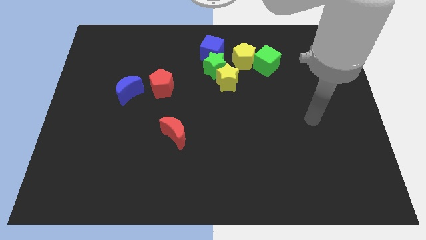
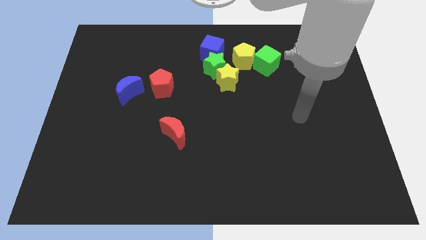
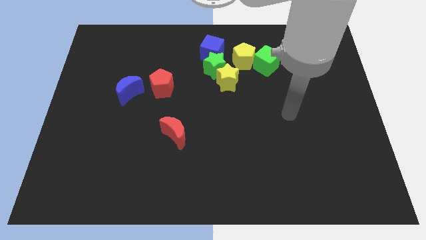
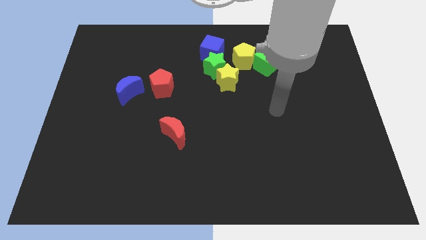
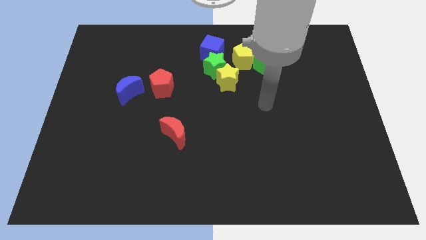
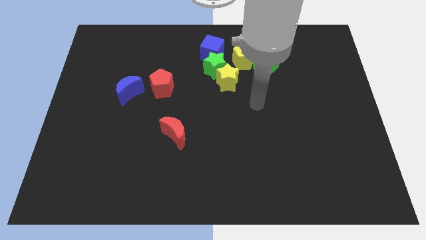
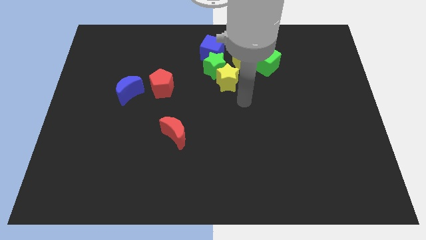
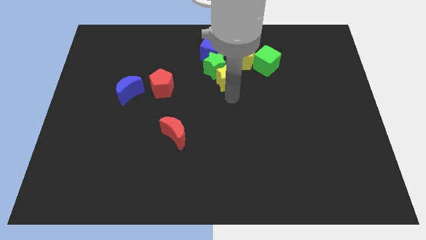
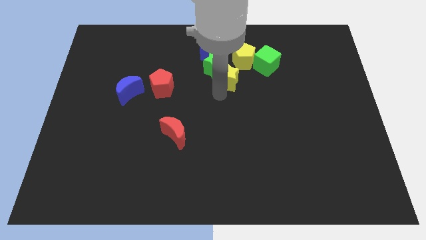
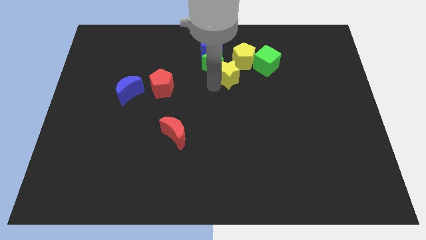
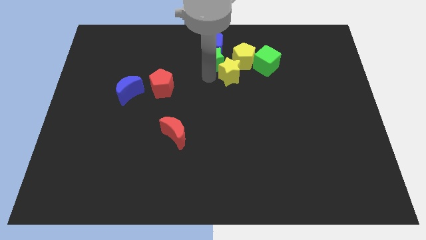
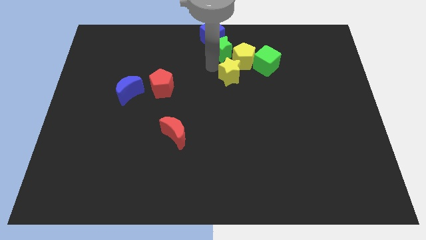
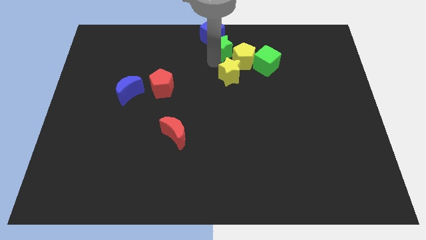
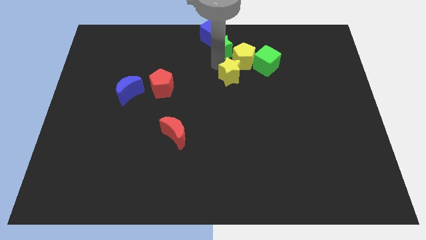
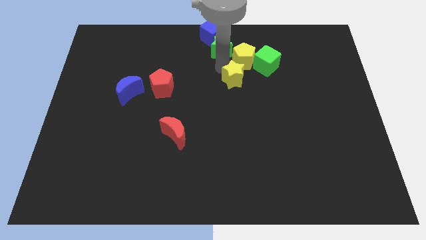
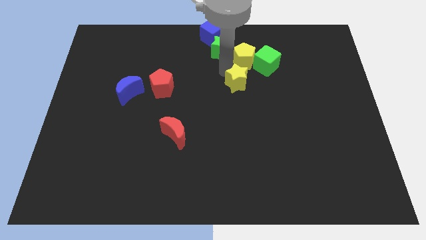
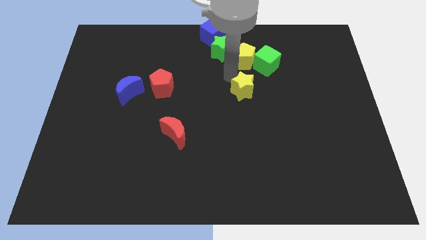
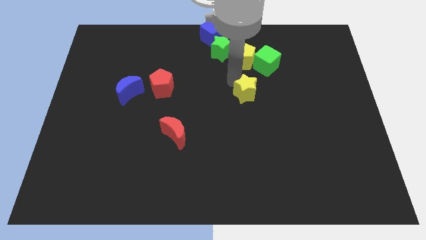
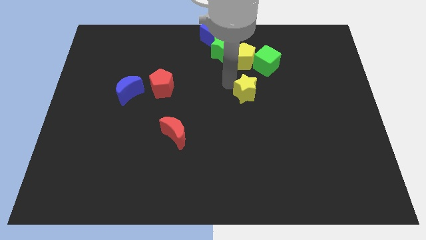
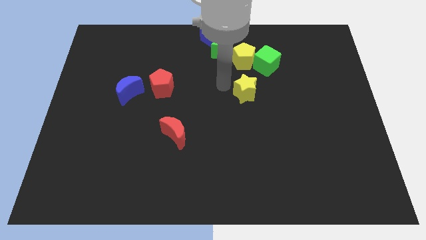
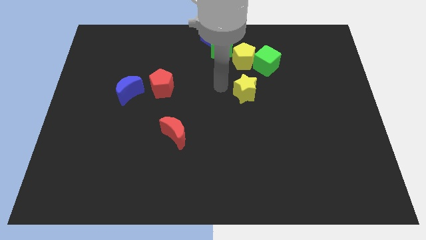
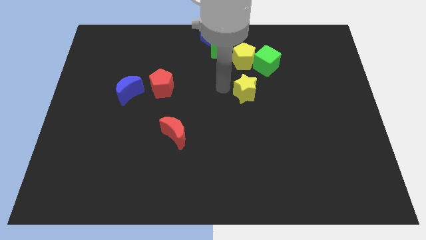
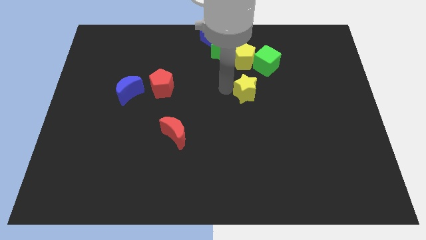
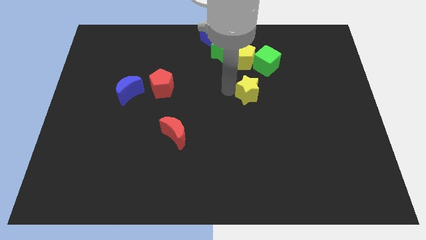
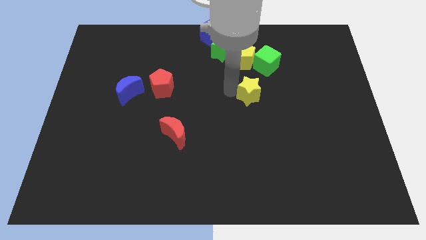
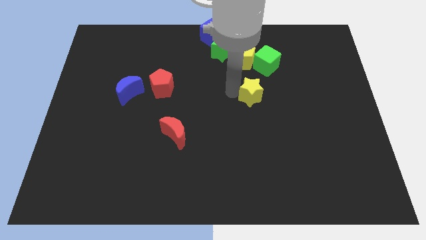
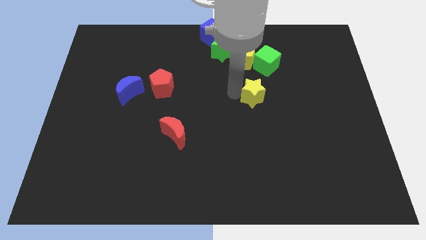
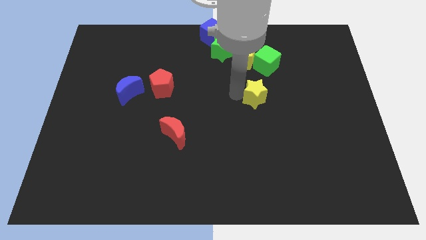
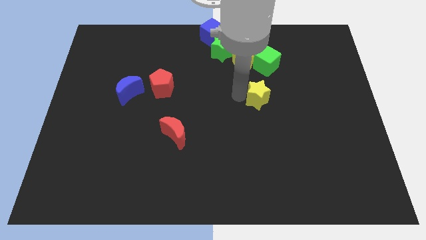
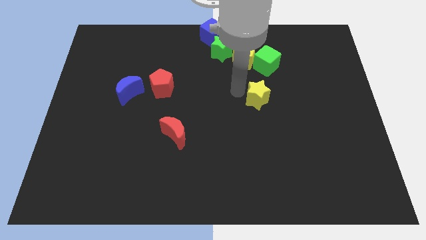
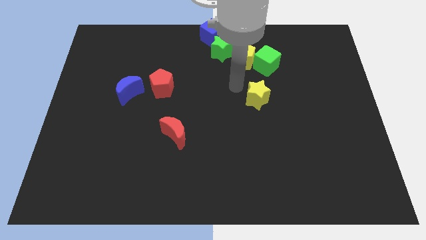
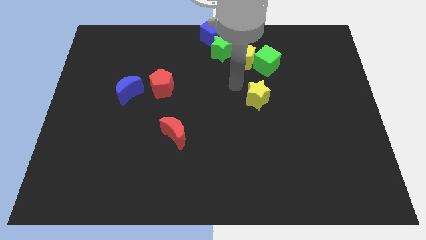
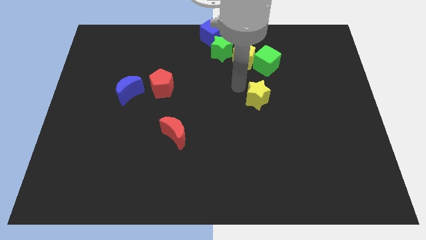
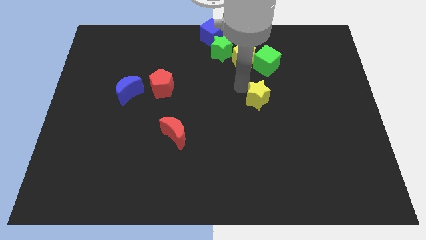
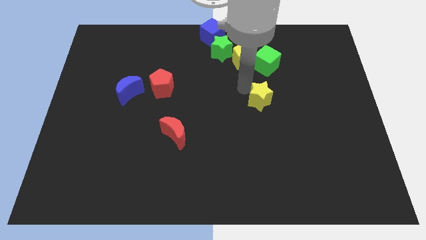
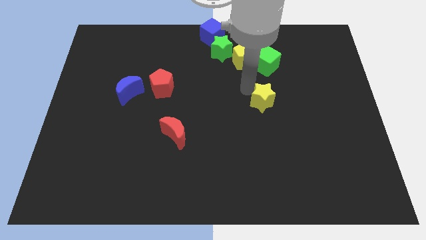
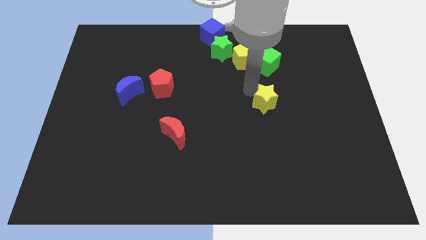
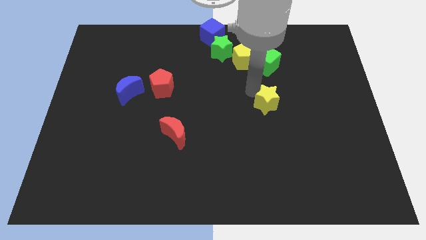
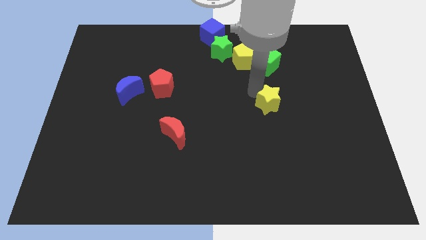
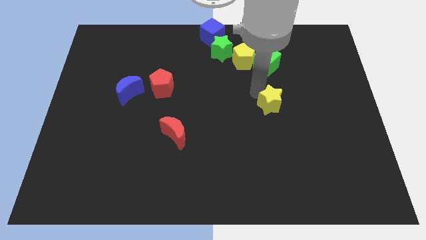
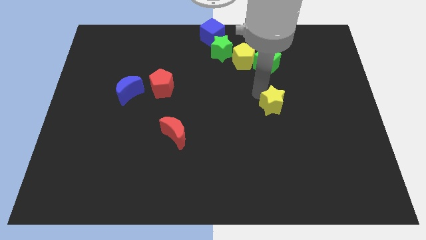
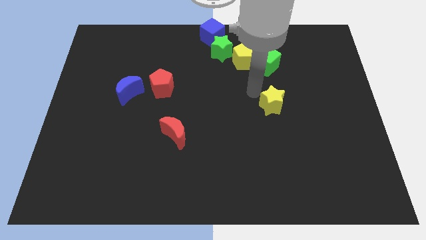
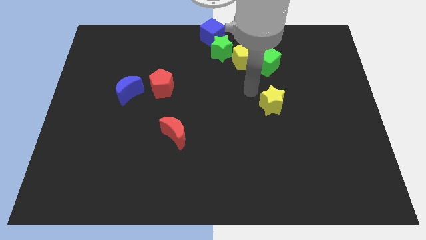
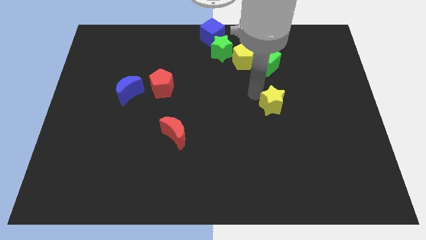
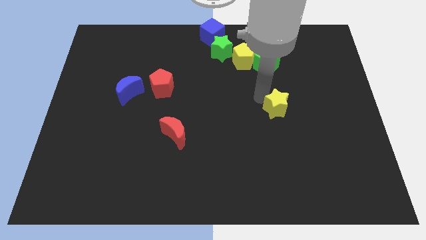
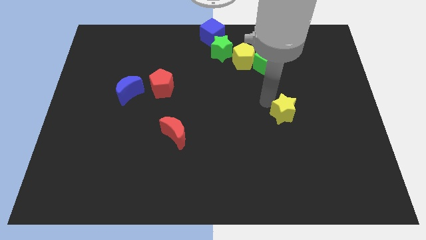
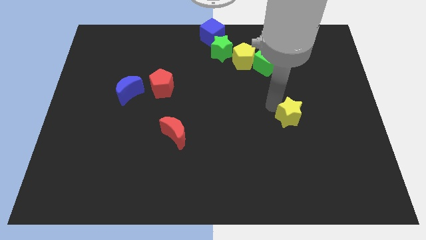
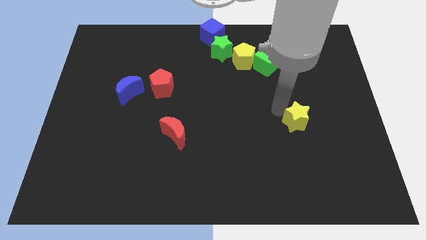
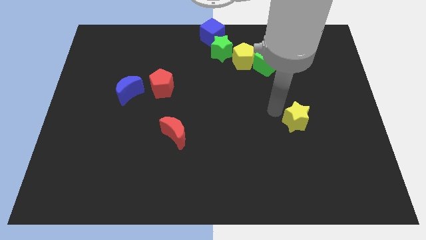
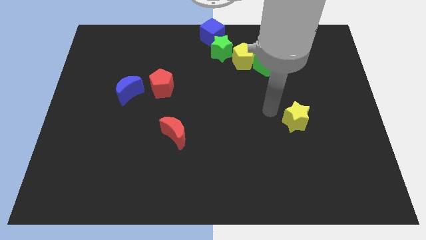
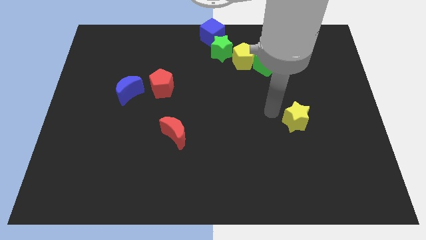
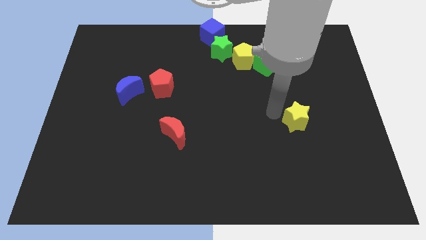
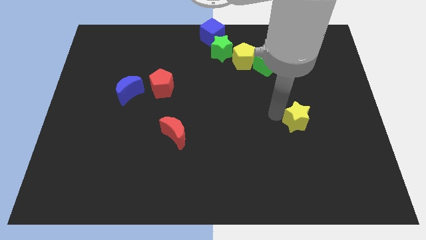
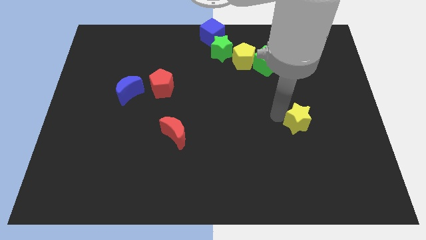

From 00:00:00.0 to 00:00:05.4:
slide the yellow star diagonally downwards and right

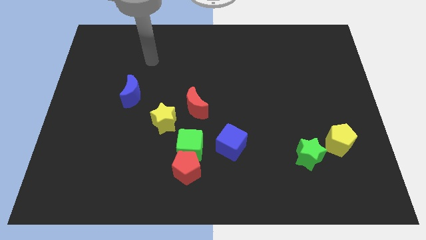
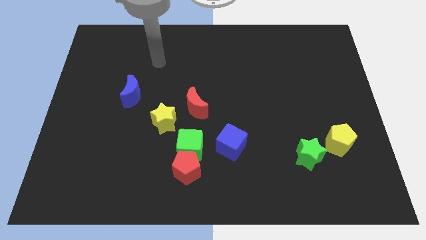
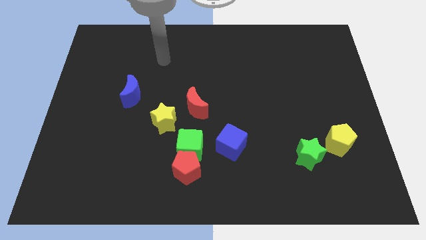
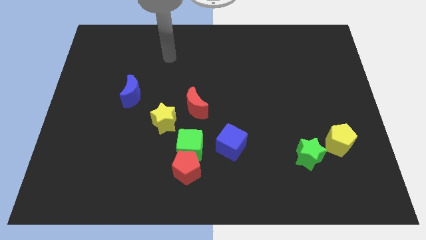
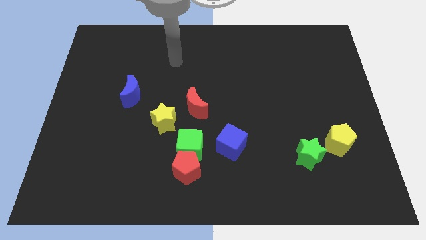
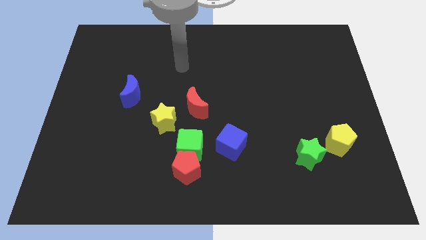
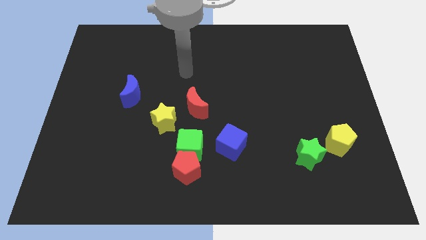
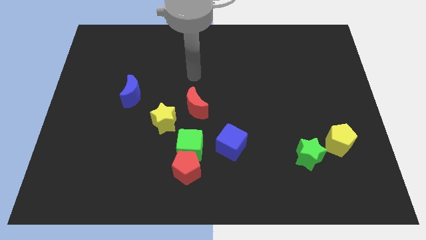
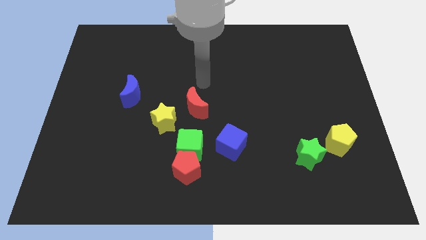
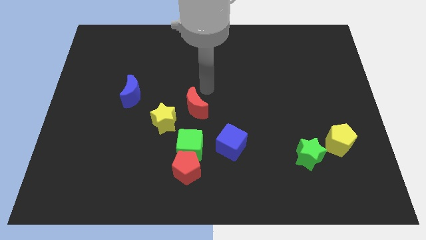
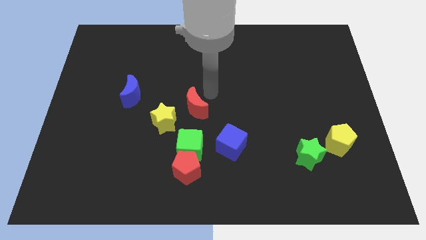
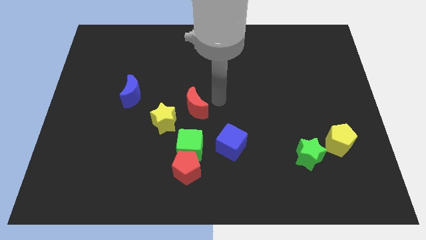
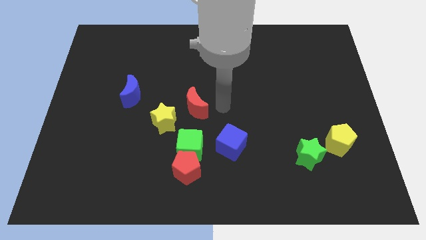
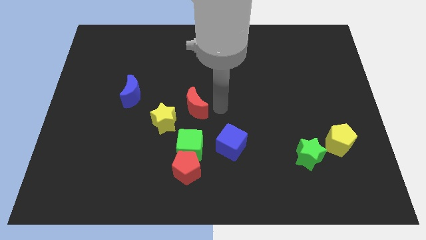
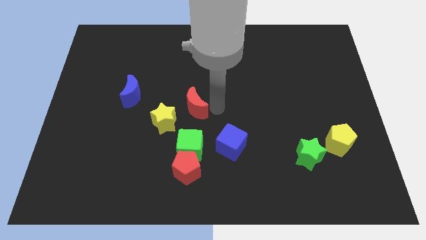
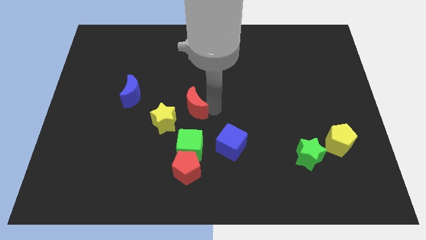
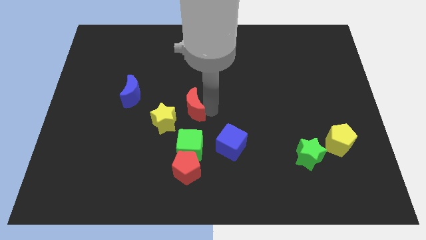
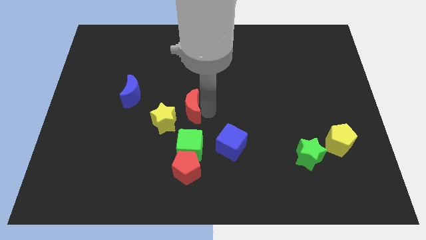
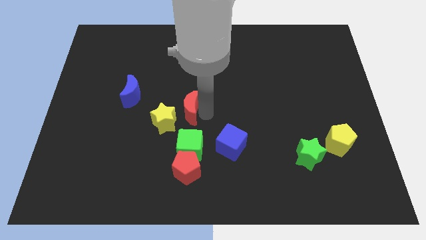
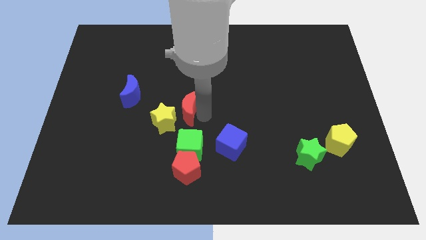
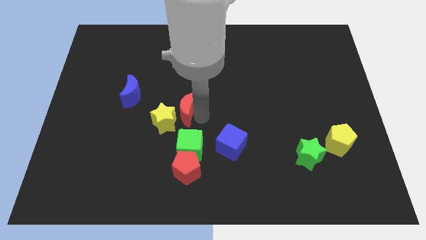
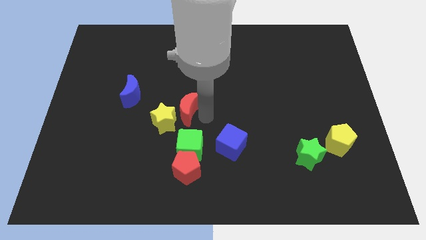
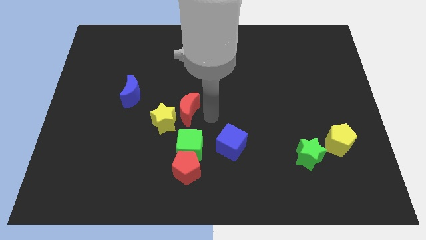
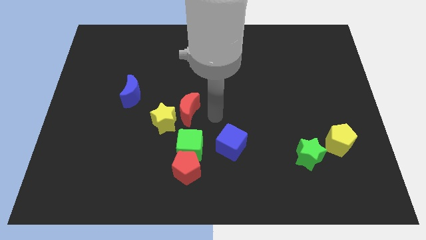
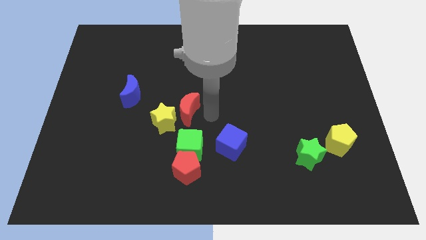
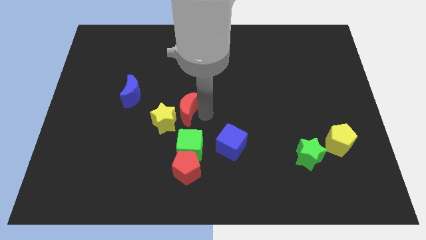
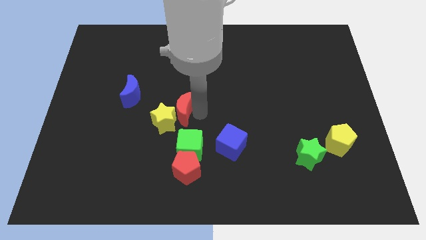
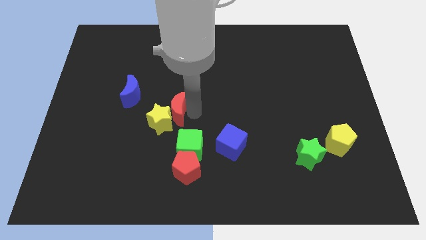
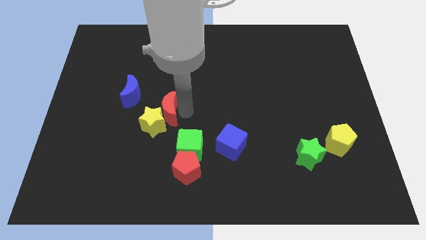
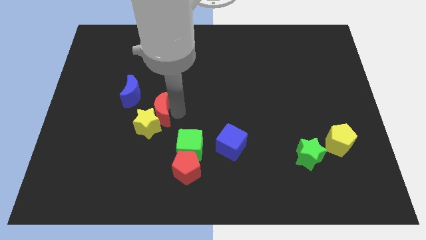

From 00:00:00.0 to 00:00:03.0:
slightly push the red moon to the left
